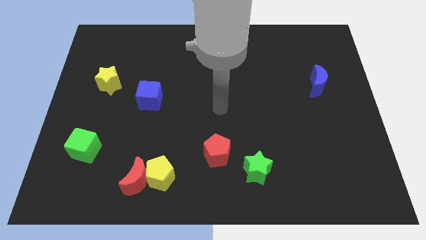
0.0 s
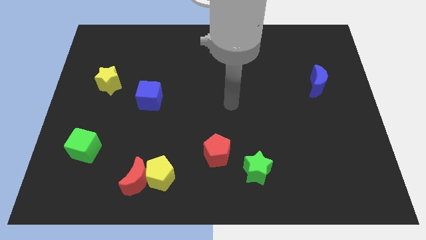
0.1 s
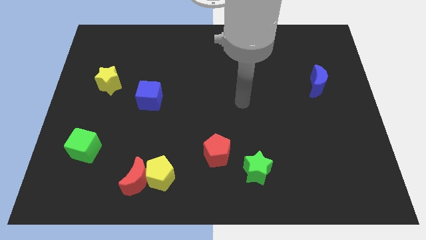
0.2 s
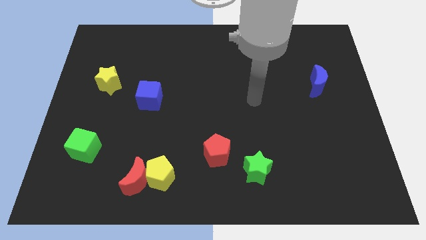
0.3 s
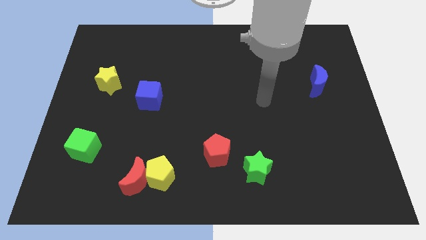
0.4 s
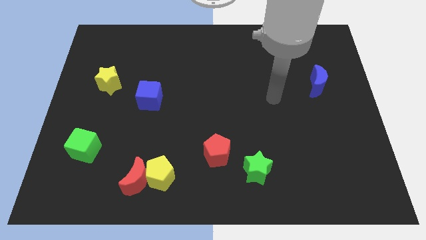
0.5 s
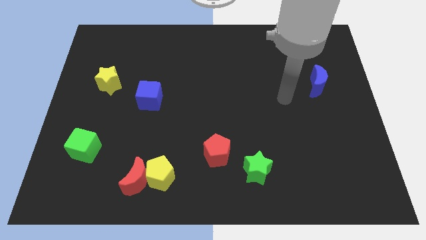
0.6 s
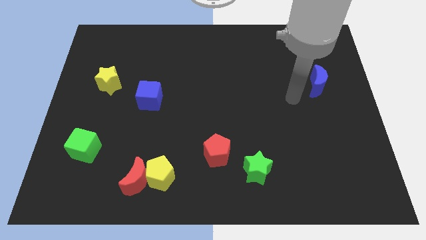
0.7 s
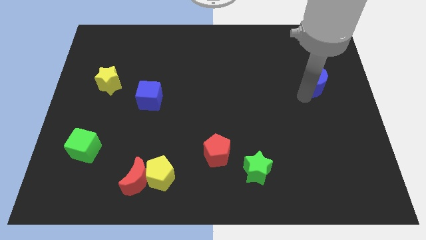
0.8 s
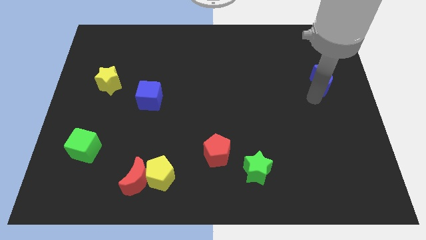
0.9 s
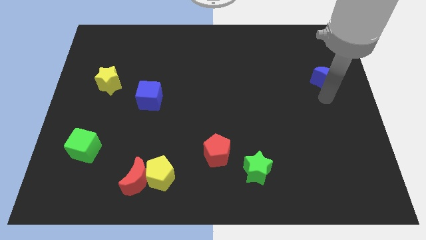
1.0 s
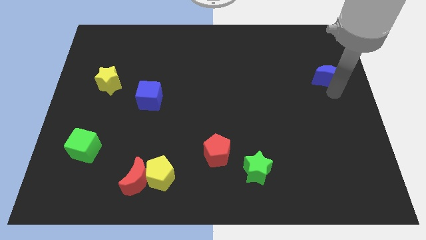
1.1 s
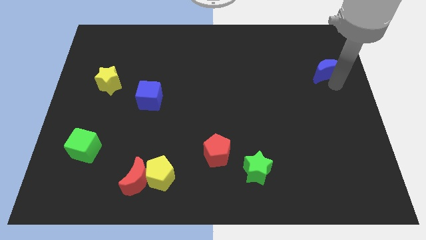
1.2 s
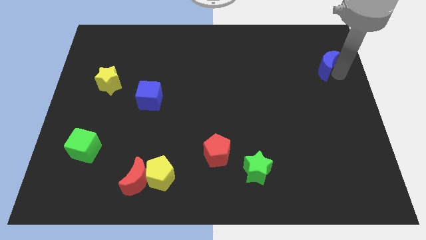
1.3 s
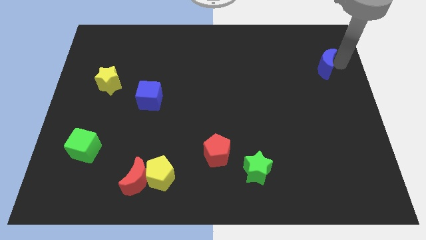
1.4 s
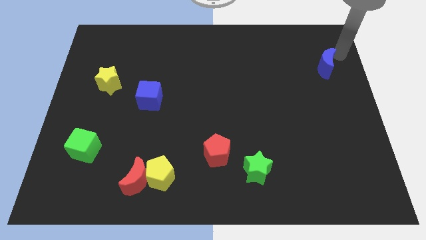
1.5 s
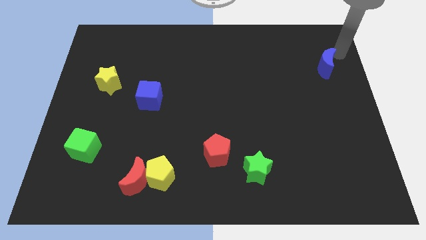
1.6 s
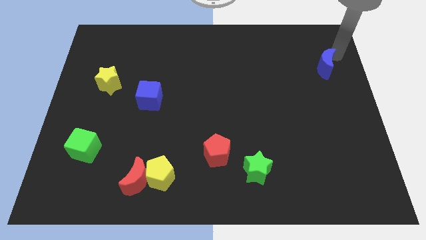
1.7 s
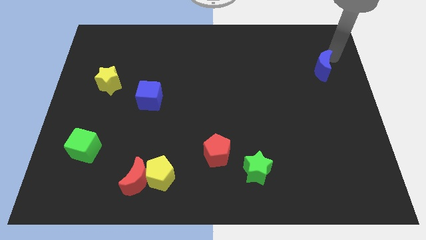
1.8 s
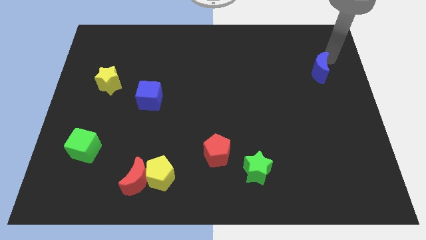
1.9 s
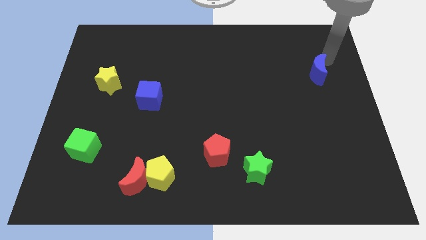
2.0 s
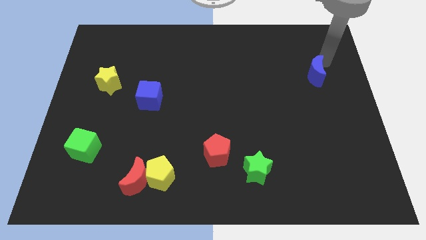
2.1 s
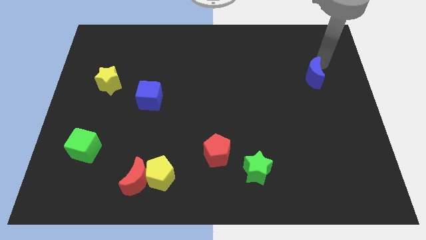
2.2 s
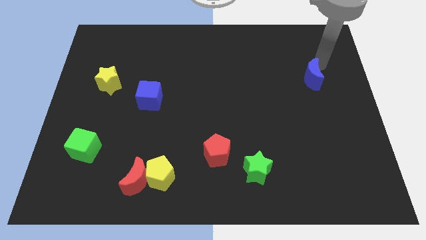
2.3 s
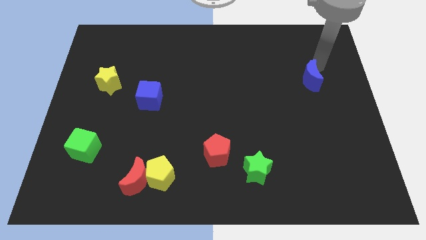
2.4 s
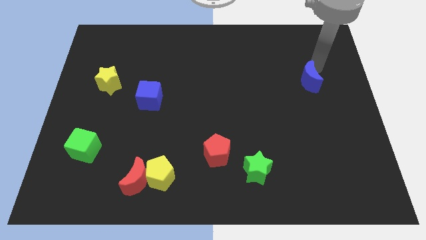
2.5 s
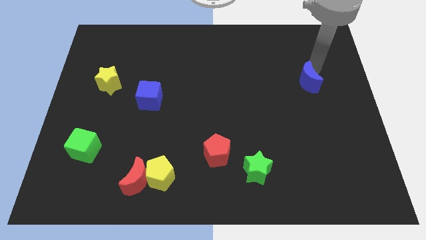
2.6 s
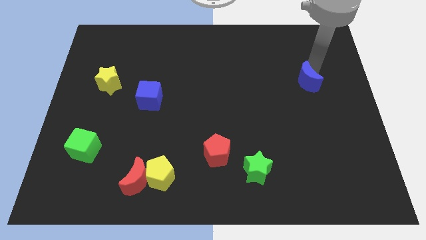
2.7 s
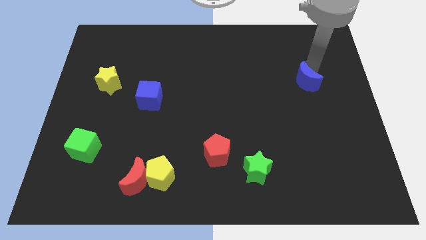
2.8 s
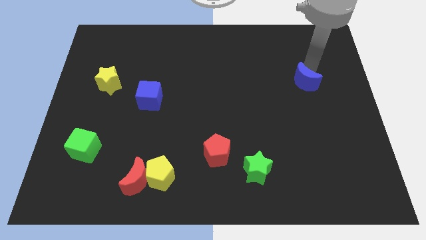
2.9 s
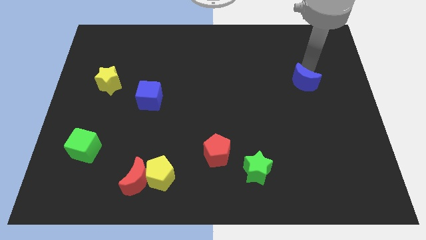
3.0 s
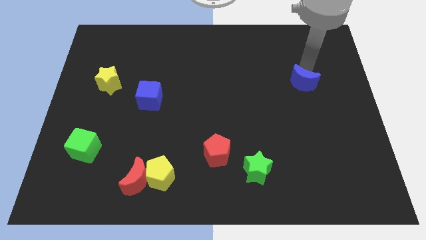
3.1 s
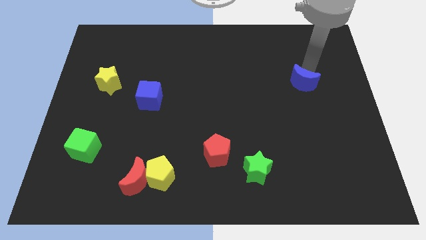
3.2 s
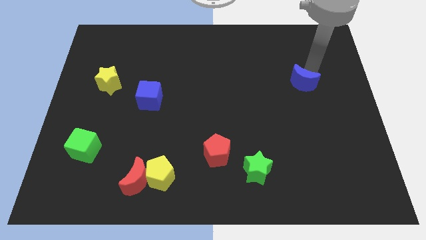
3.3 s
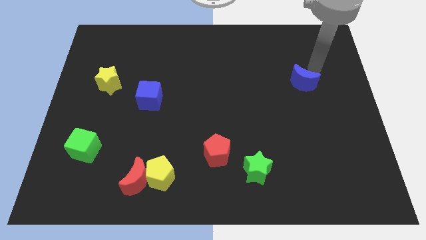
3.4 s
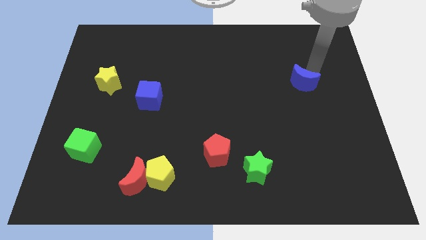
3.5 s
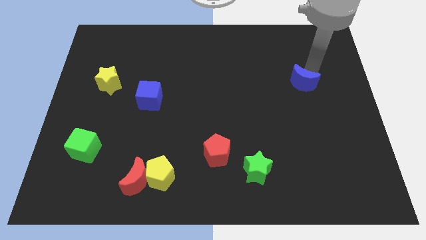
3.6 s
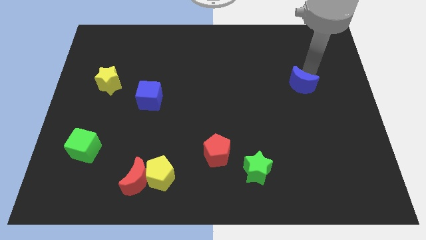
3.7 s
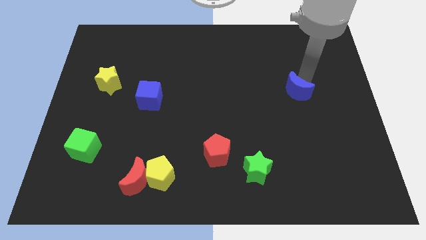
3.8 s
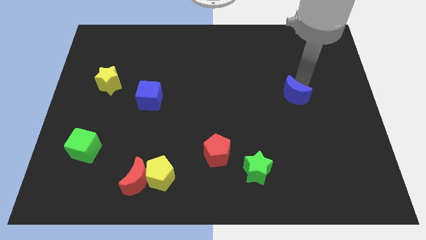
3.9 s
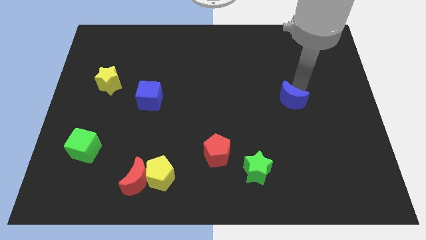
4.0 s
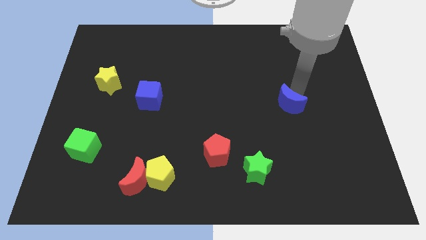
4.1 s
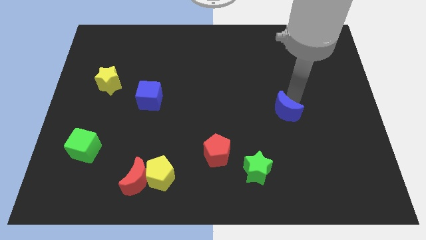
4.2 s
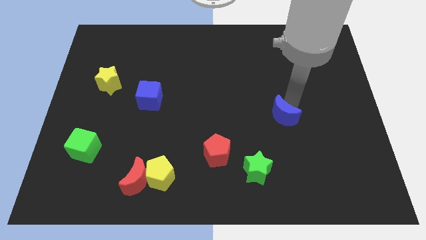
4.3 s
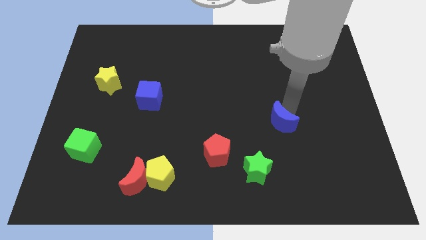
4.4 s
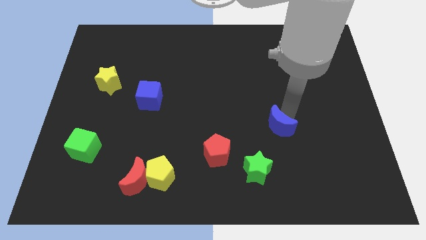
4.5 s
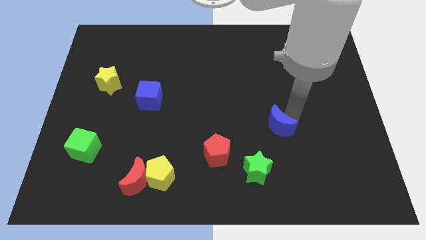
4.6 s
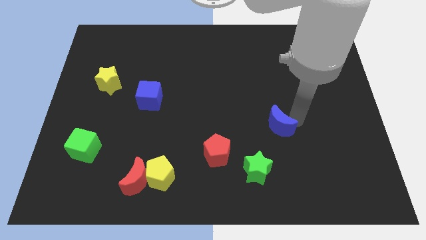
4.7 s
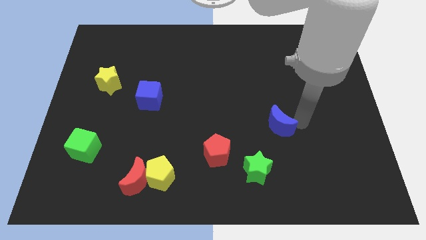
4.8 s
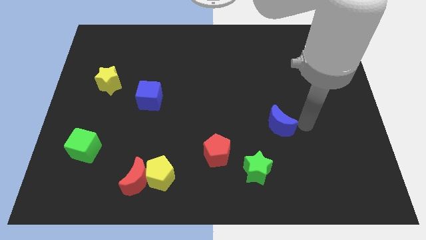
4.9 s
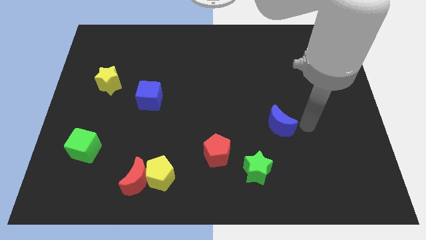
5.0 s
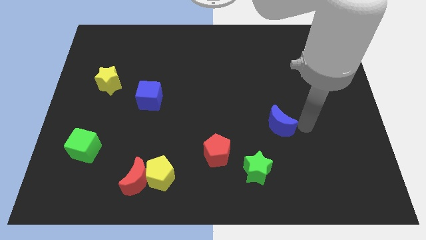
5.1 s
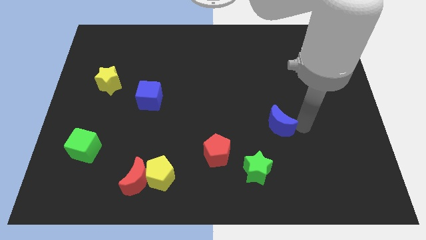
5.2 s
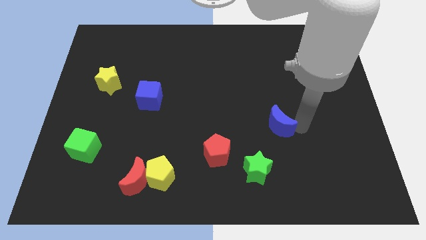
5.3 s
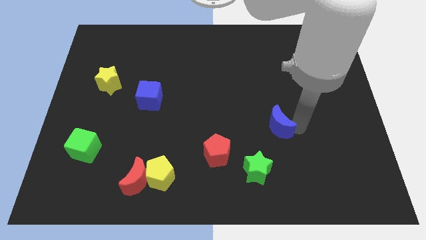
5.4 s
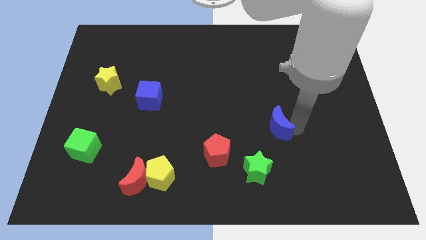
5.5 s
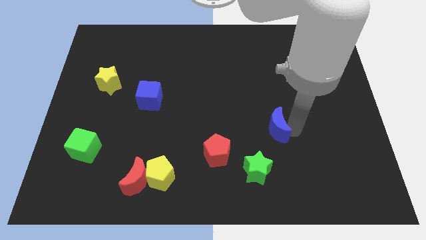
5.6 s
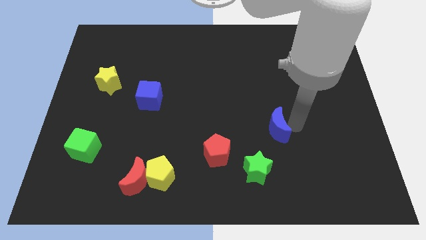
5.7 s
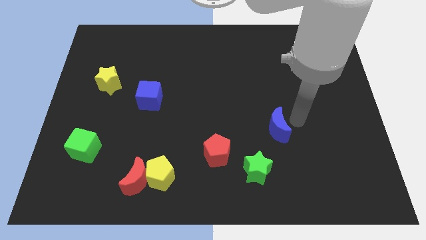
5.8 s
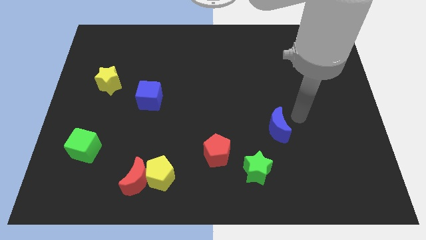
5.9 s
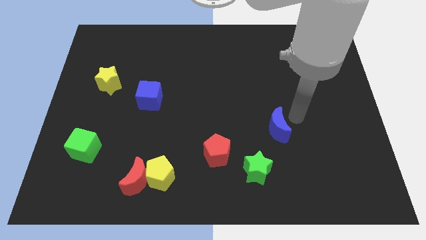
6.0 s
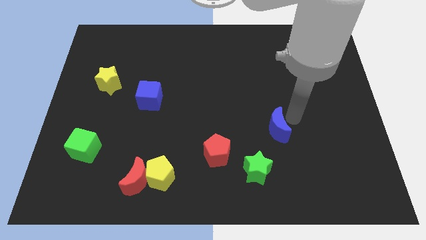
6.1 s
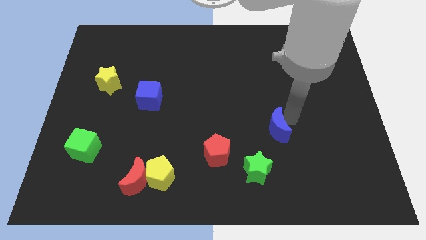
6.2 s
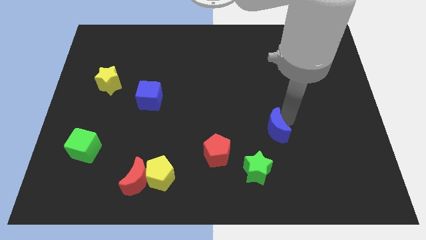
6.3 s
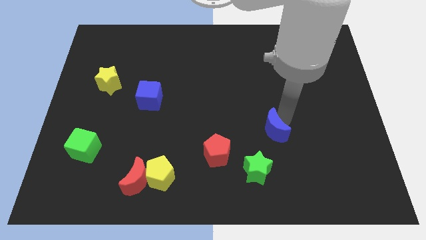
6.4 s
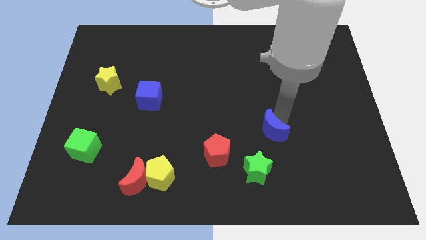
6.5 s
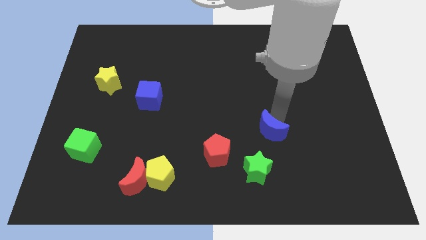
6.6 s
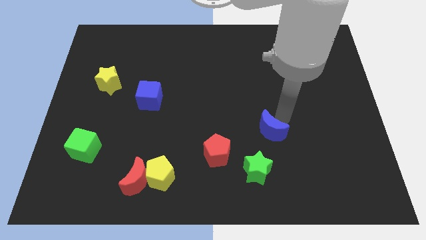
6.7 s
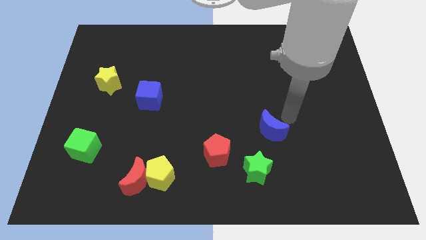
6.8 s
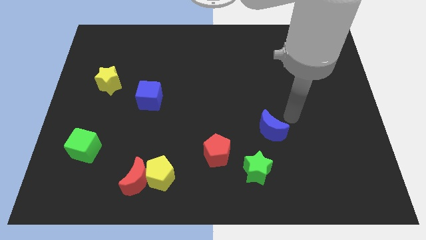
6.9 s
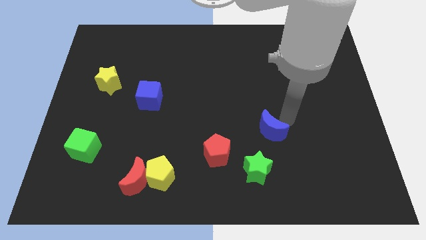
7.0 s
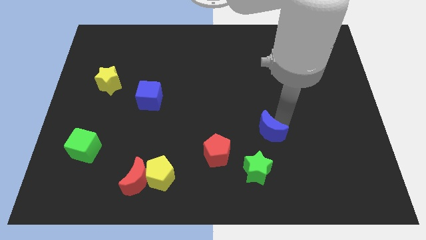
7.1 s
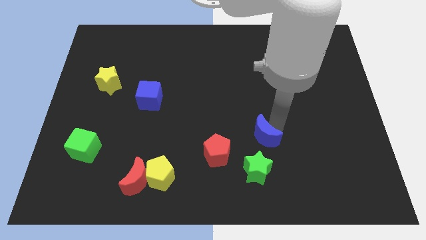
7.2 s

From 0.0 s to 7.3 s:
move the blue moon down and then to the left

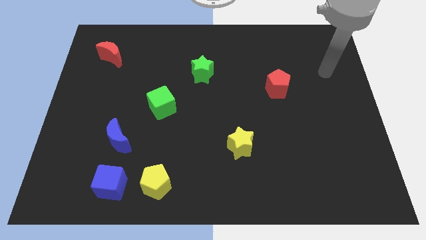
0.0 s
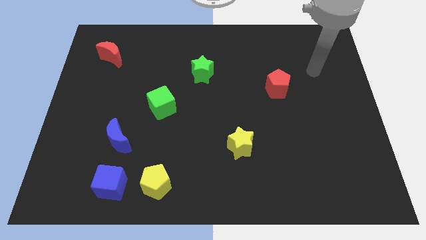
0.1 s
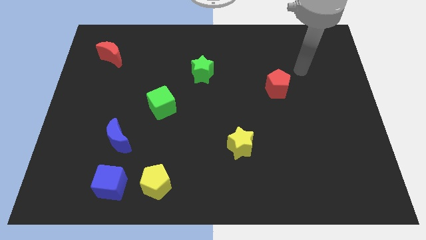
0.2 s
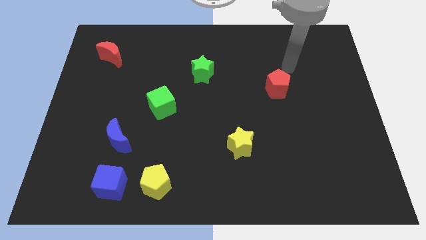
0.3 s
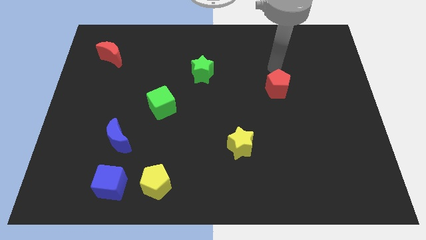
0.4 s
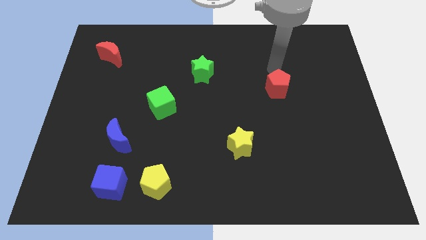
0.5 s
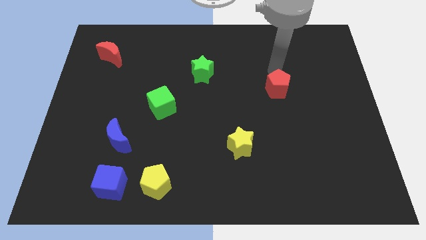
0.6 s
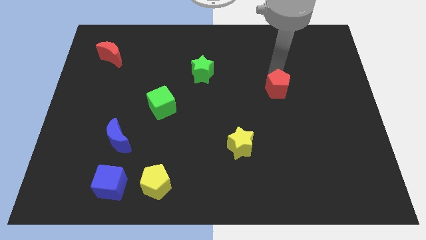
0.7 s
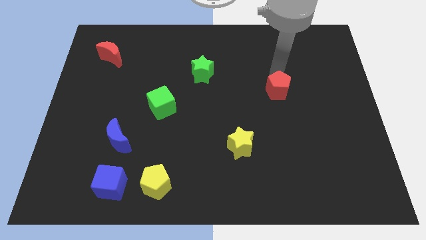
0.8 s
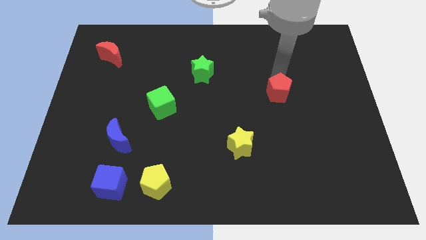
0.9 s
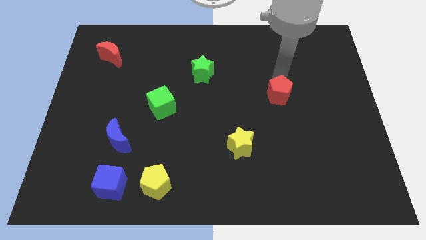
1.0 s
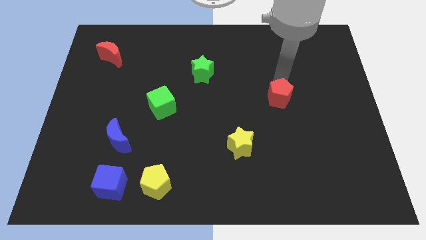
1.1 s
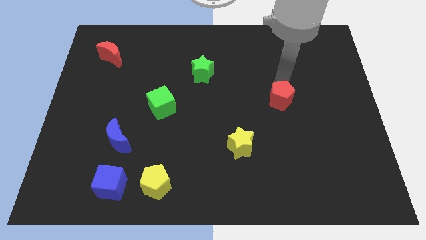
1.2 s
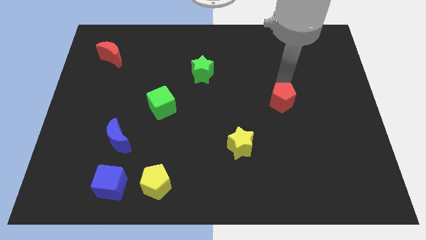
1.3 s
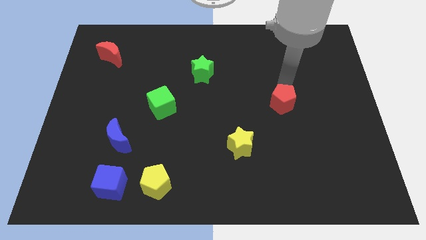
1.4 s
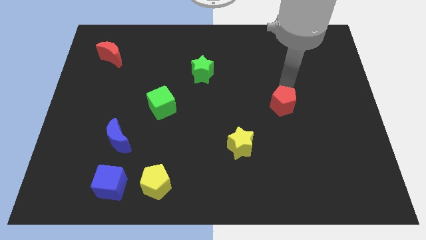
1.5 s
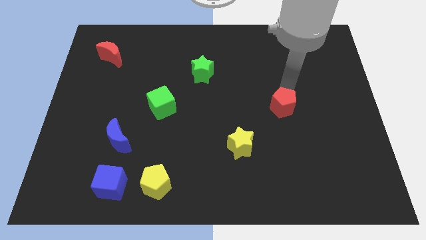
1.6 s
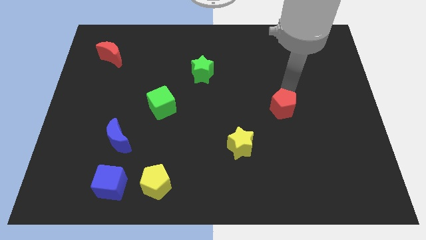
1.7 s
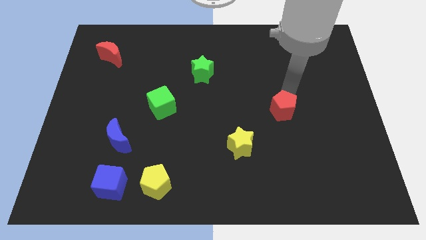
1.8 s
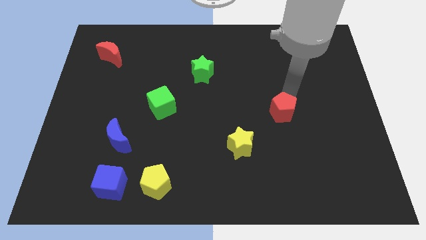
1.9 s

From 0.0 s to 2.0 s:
slide the red pentagon a bit down
